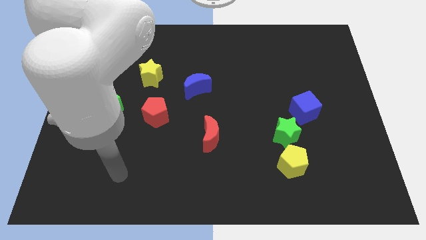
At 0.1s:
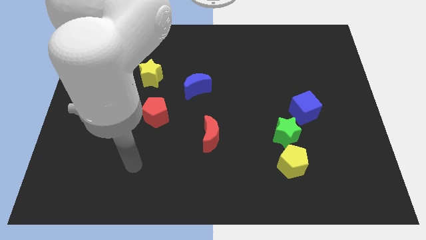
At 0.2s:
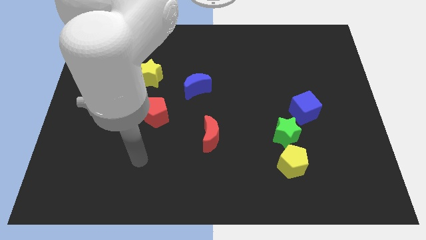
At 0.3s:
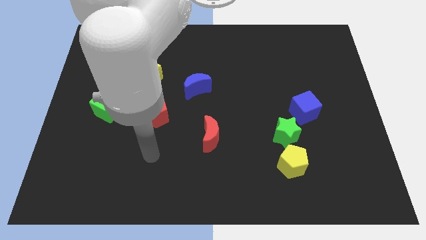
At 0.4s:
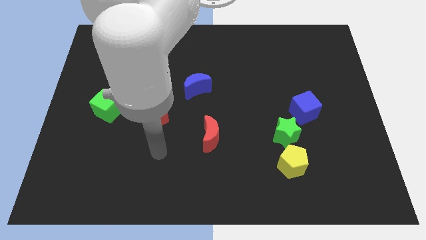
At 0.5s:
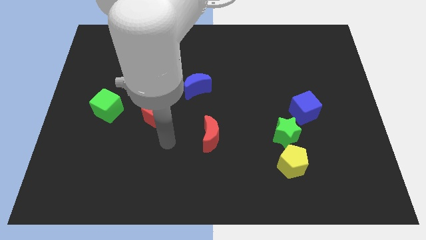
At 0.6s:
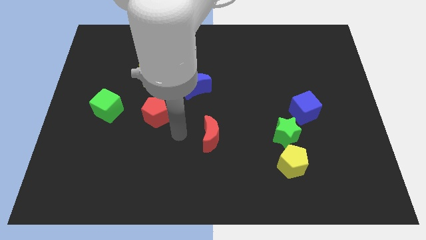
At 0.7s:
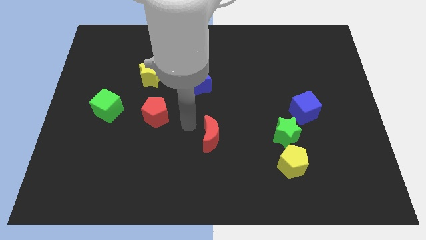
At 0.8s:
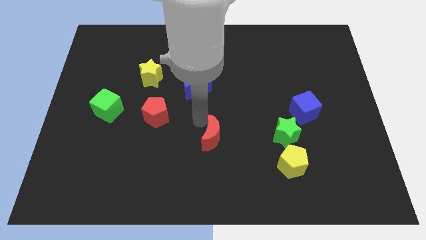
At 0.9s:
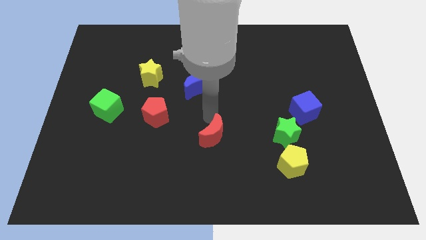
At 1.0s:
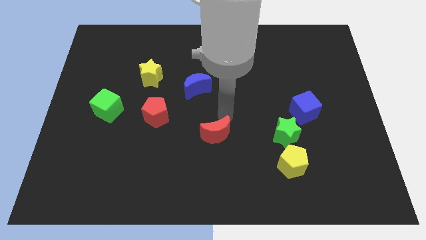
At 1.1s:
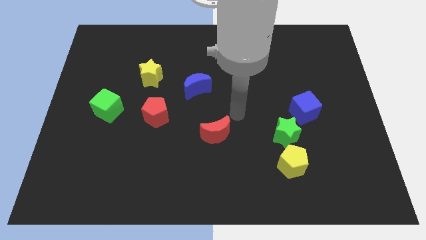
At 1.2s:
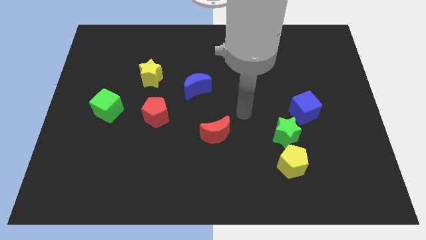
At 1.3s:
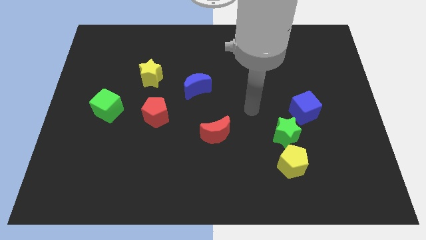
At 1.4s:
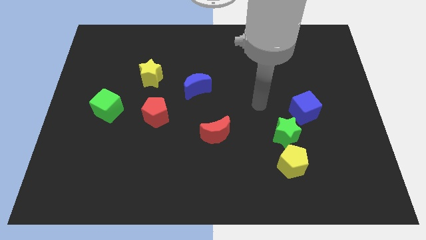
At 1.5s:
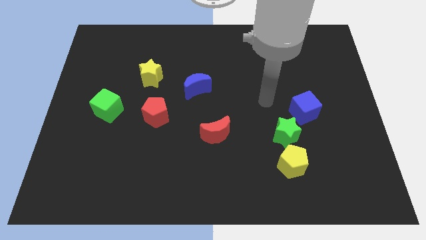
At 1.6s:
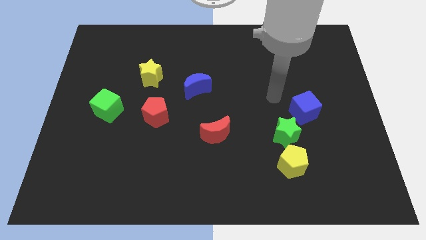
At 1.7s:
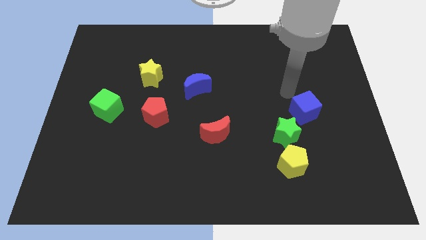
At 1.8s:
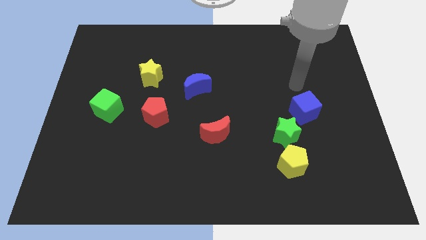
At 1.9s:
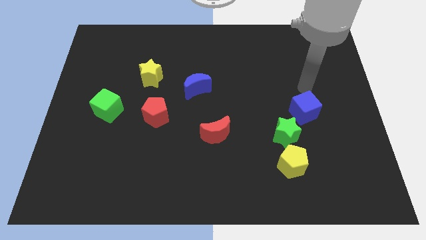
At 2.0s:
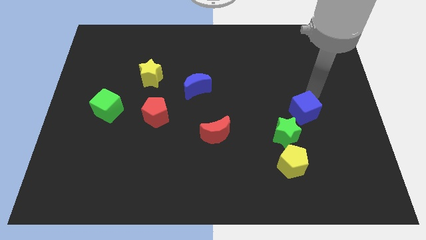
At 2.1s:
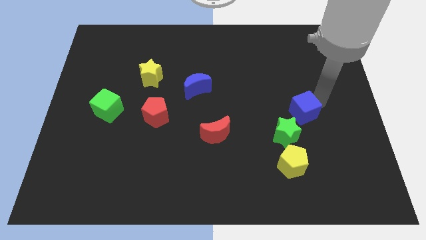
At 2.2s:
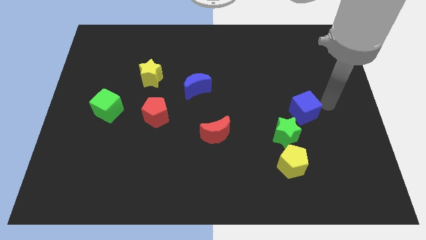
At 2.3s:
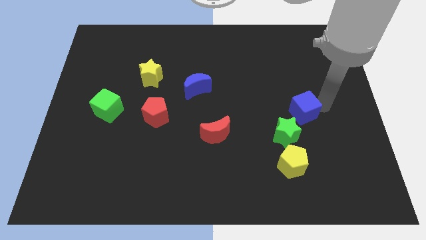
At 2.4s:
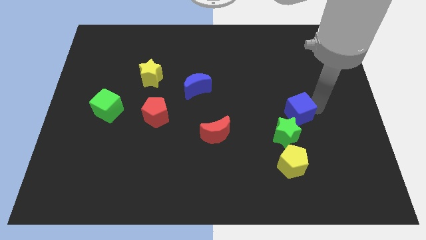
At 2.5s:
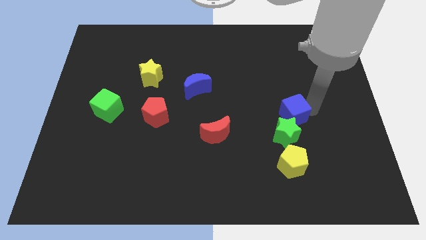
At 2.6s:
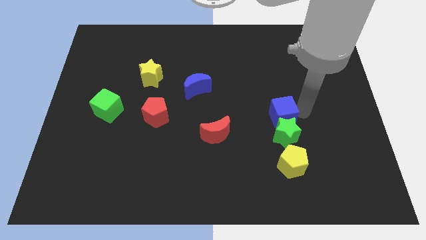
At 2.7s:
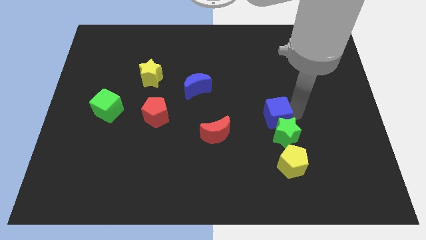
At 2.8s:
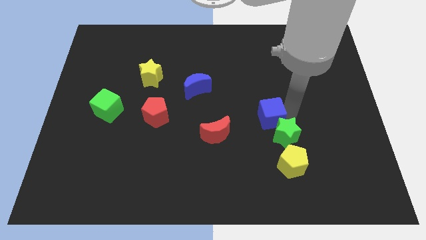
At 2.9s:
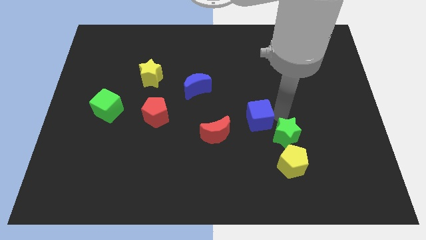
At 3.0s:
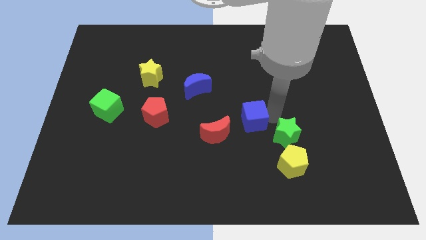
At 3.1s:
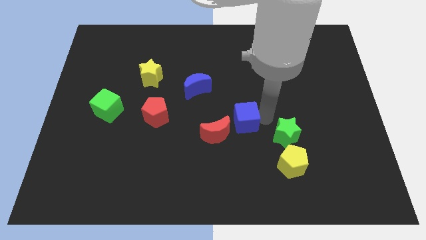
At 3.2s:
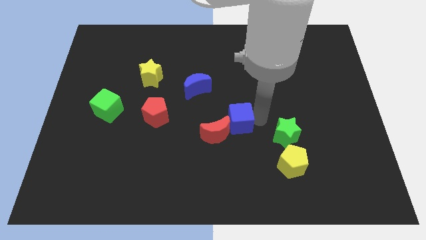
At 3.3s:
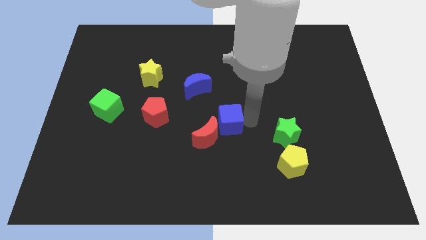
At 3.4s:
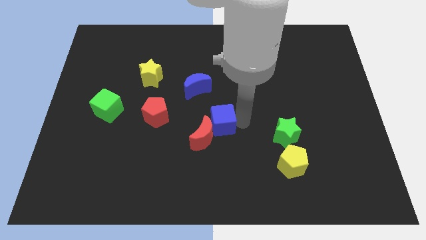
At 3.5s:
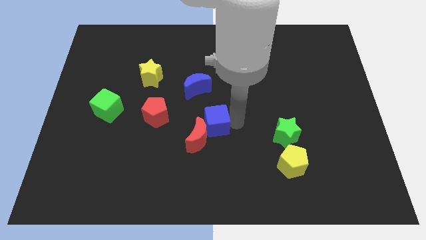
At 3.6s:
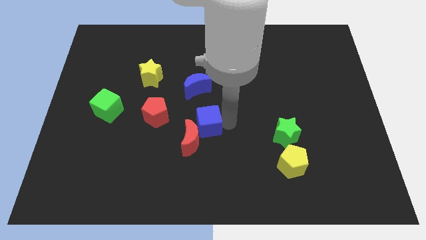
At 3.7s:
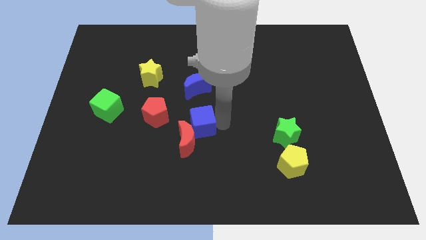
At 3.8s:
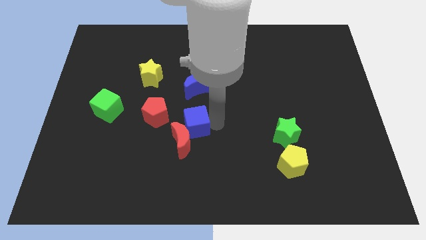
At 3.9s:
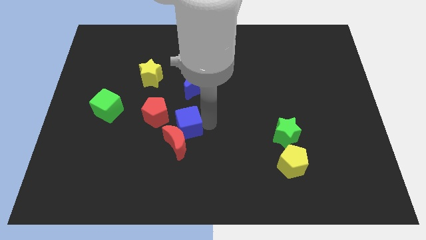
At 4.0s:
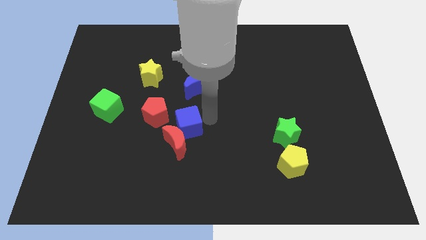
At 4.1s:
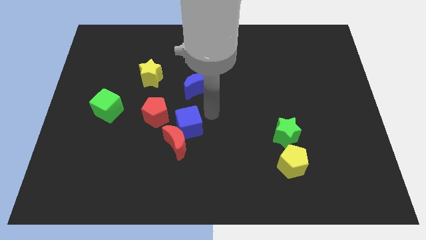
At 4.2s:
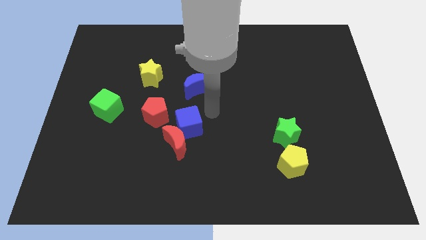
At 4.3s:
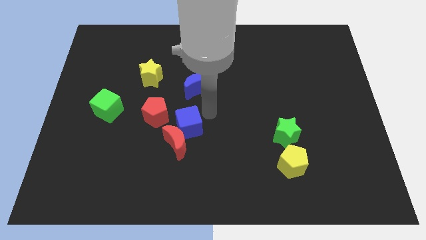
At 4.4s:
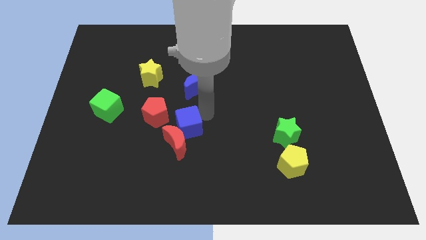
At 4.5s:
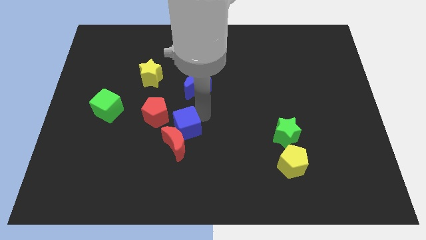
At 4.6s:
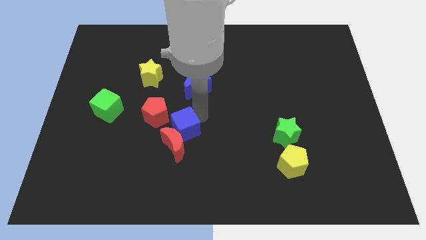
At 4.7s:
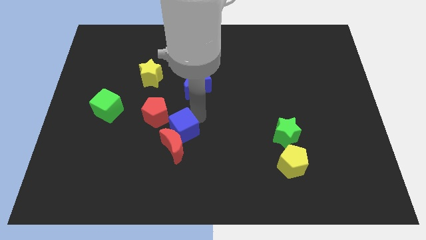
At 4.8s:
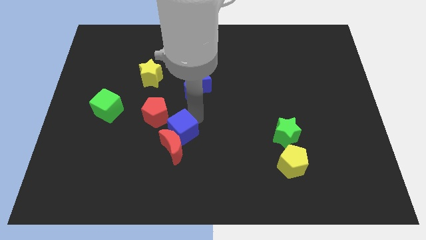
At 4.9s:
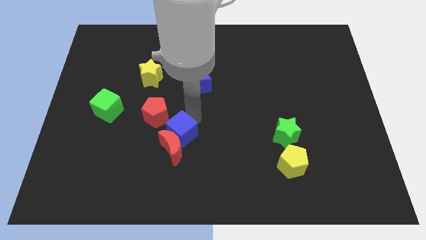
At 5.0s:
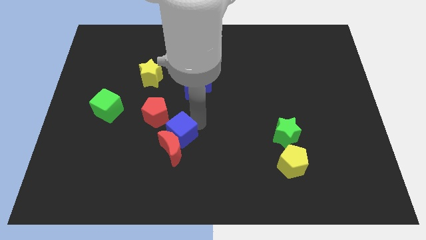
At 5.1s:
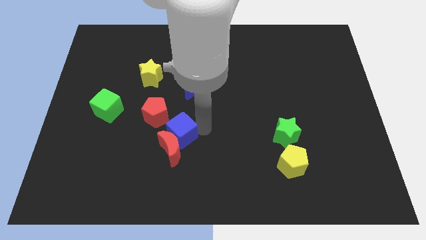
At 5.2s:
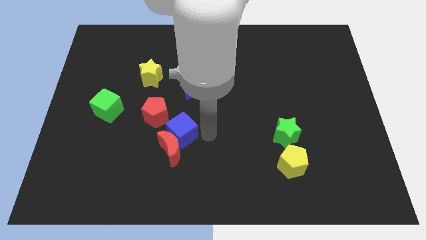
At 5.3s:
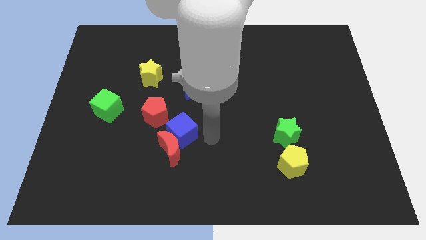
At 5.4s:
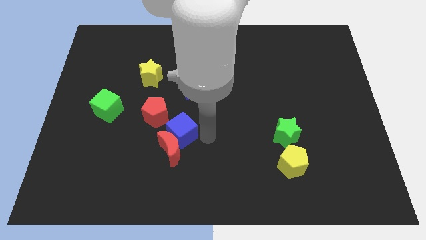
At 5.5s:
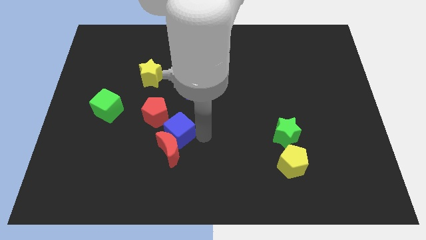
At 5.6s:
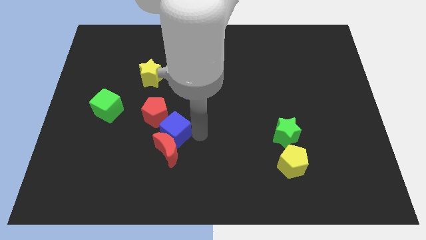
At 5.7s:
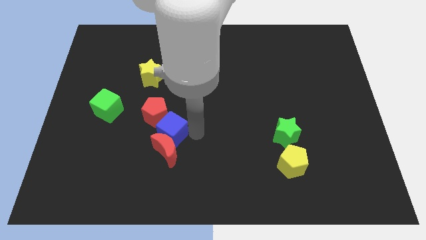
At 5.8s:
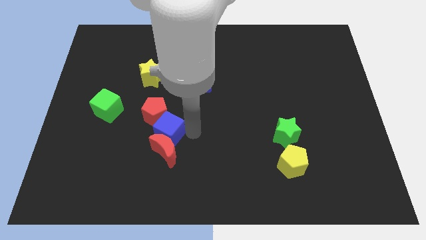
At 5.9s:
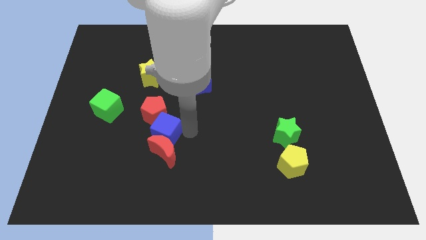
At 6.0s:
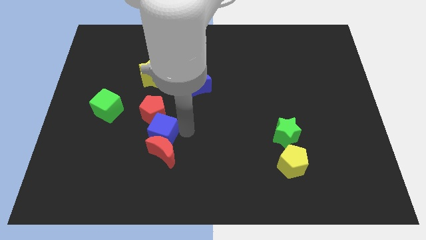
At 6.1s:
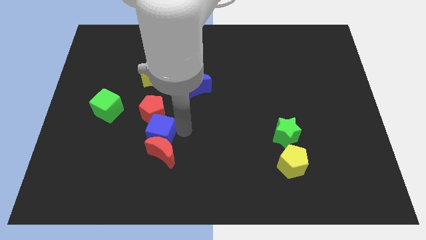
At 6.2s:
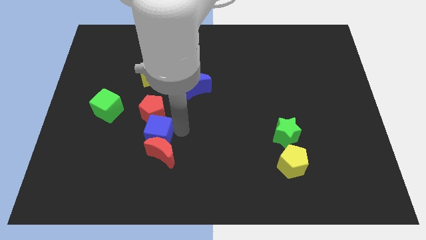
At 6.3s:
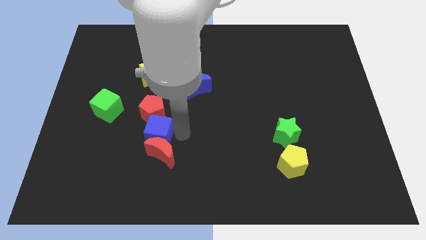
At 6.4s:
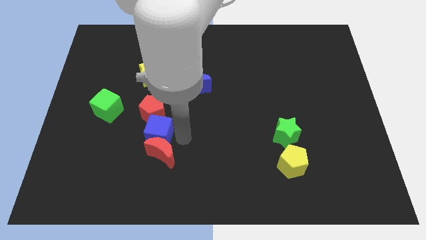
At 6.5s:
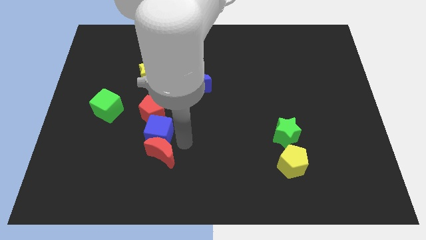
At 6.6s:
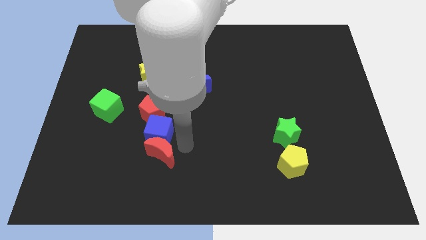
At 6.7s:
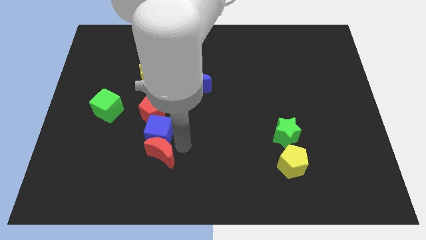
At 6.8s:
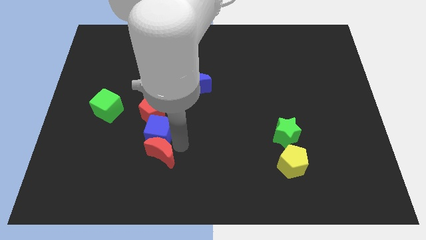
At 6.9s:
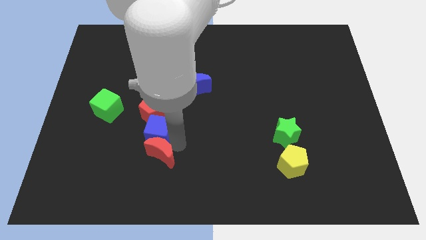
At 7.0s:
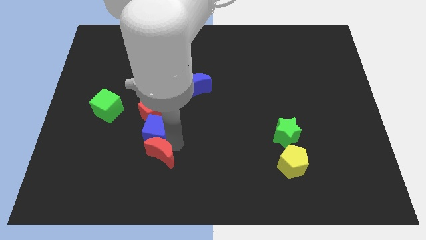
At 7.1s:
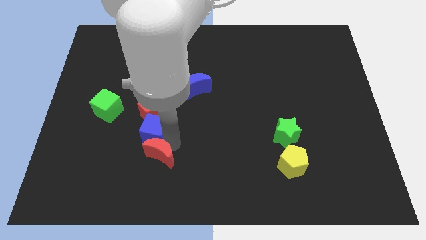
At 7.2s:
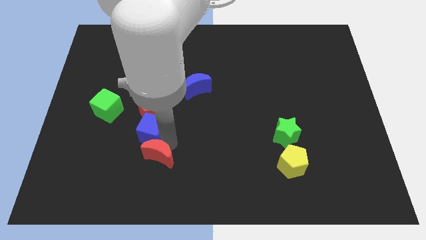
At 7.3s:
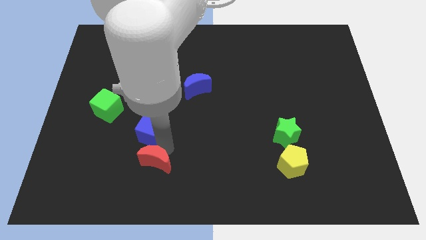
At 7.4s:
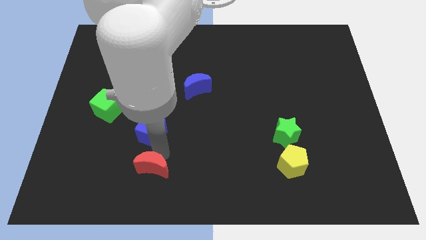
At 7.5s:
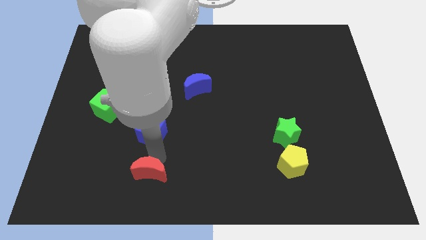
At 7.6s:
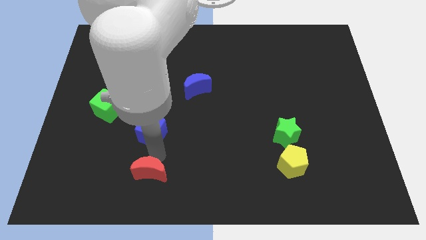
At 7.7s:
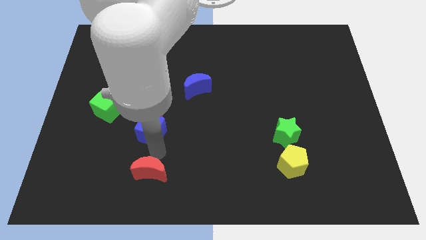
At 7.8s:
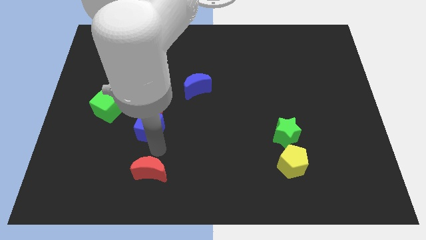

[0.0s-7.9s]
slide the blue cube below the yellow star
